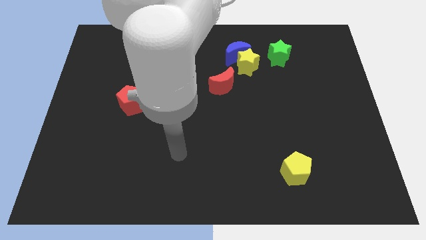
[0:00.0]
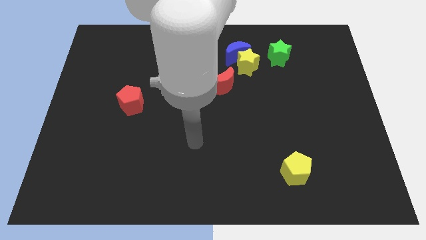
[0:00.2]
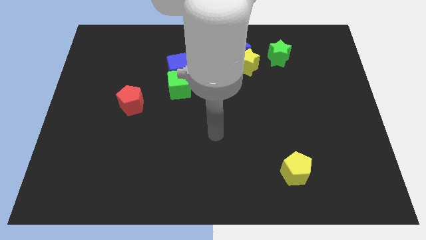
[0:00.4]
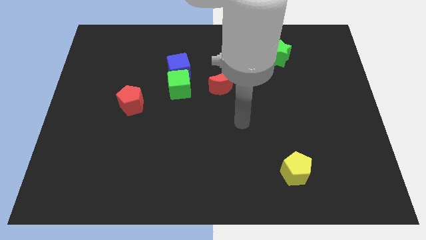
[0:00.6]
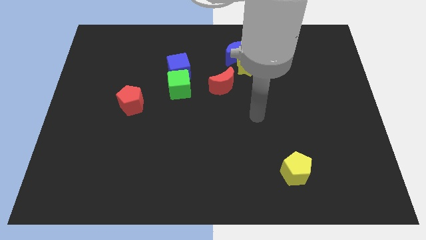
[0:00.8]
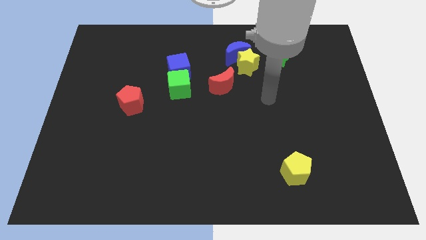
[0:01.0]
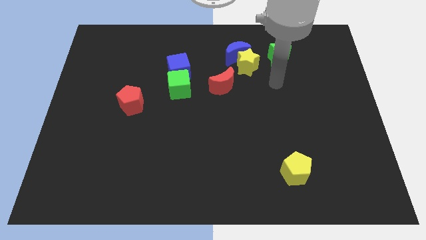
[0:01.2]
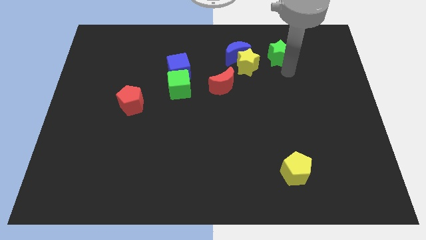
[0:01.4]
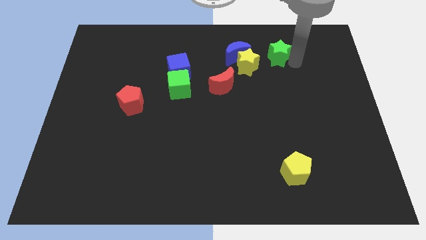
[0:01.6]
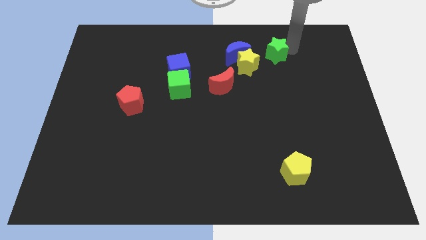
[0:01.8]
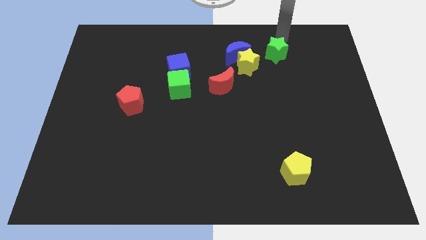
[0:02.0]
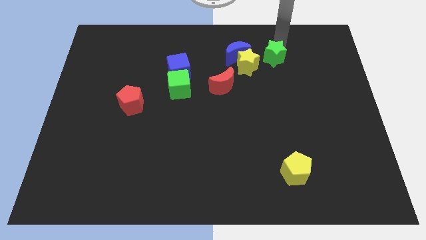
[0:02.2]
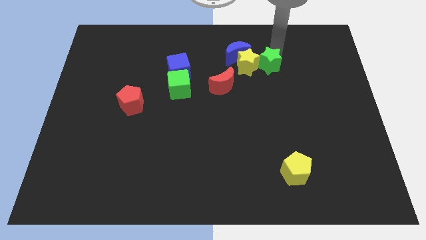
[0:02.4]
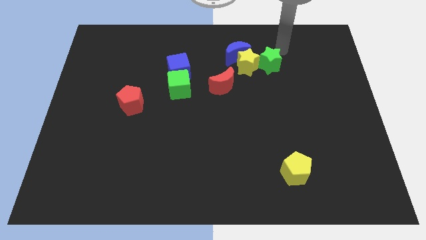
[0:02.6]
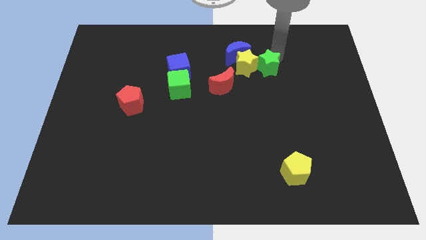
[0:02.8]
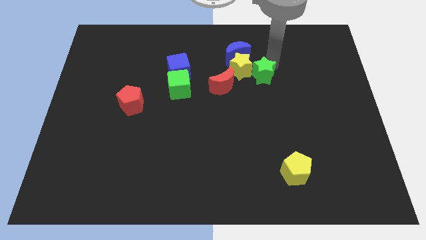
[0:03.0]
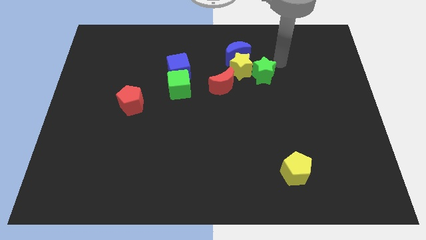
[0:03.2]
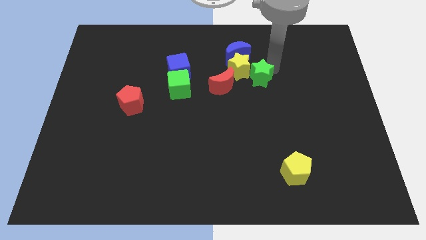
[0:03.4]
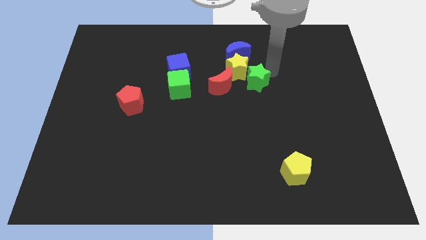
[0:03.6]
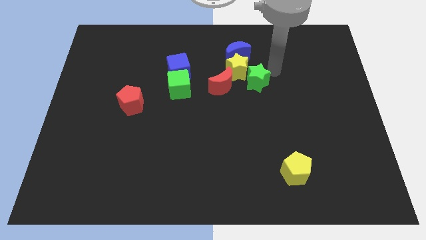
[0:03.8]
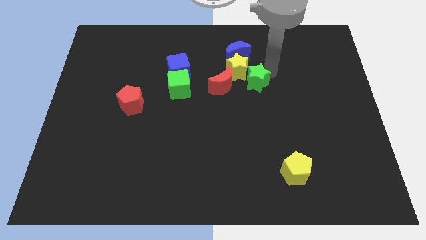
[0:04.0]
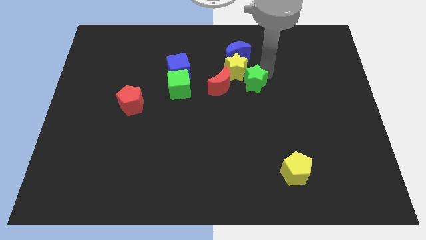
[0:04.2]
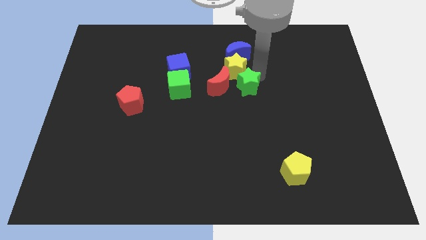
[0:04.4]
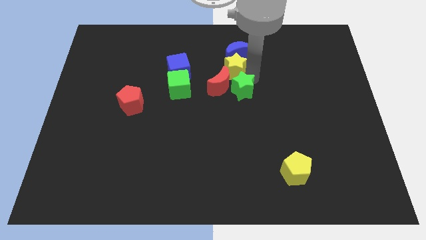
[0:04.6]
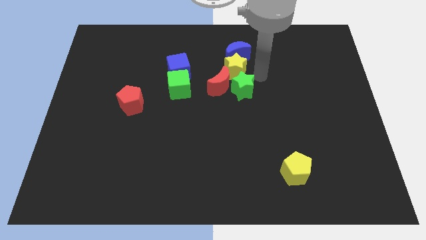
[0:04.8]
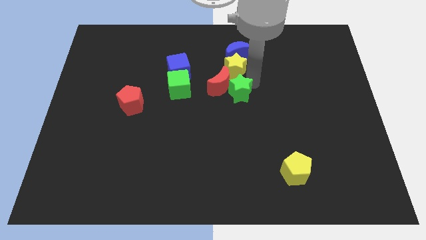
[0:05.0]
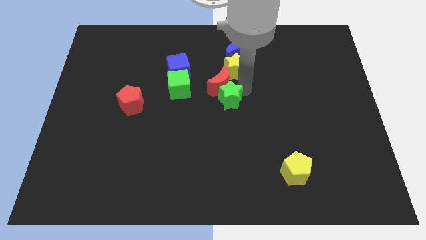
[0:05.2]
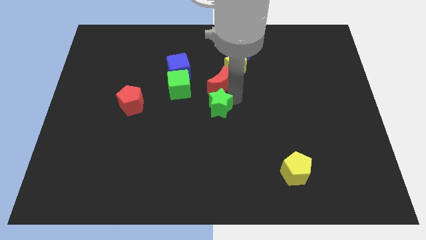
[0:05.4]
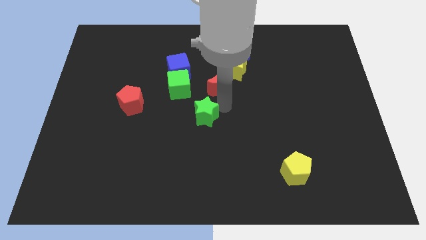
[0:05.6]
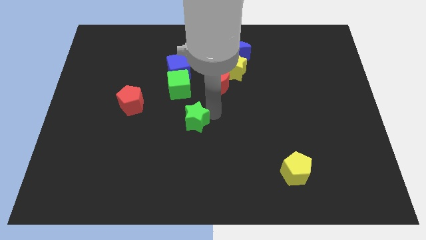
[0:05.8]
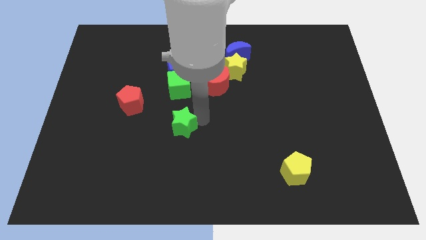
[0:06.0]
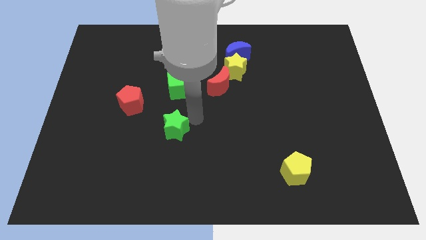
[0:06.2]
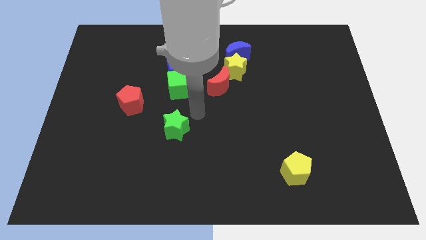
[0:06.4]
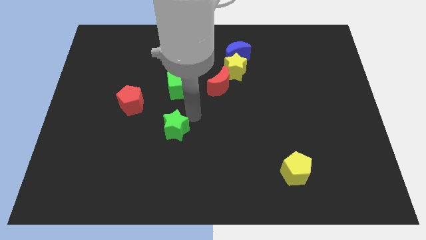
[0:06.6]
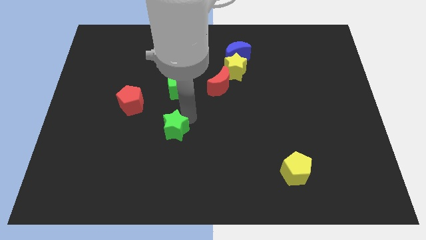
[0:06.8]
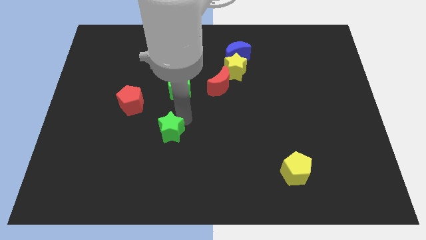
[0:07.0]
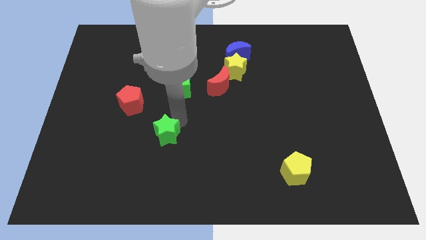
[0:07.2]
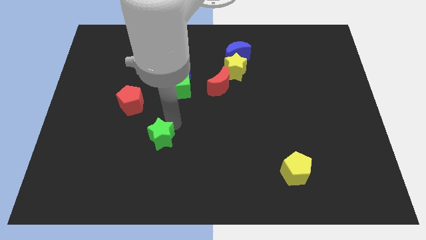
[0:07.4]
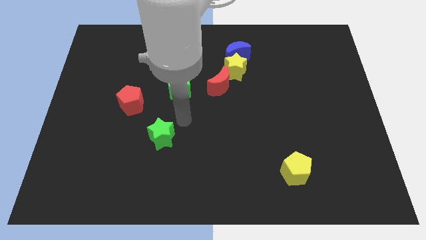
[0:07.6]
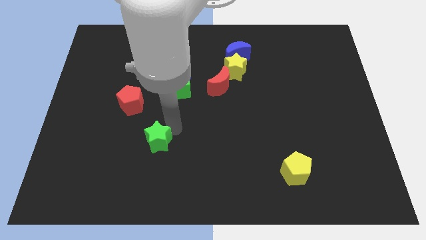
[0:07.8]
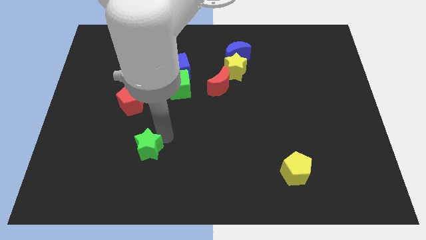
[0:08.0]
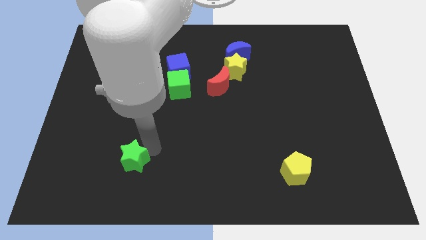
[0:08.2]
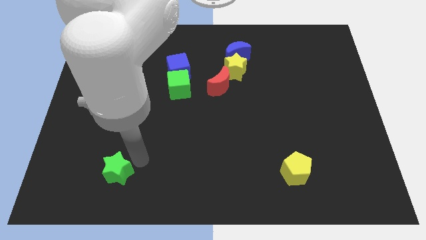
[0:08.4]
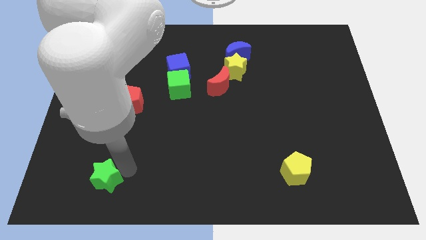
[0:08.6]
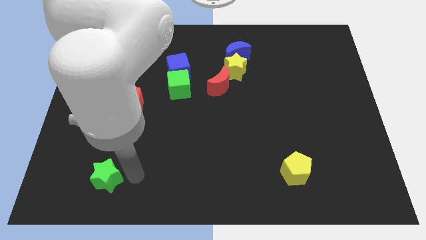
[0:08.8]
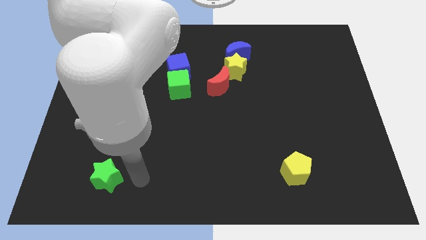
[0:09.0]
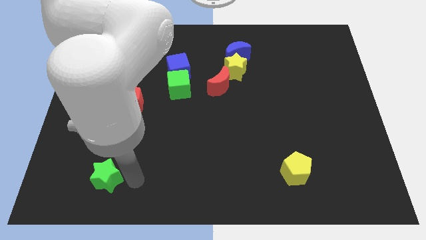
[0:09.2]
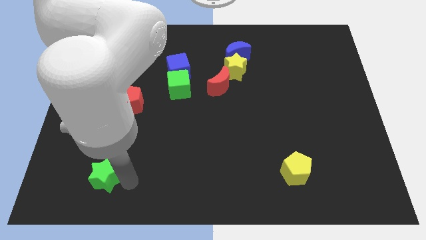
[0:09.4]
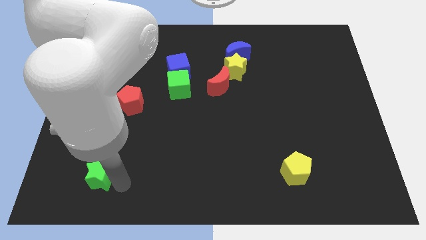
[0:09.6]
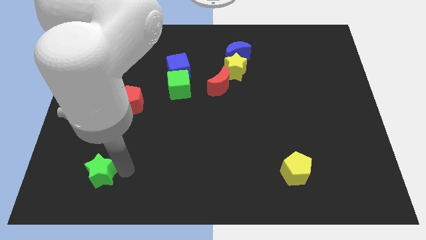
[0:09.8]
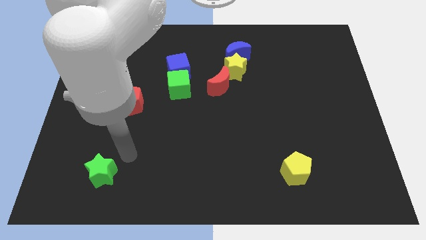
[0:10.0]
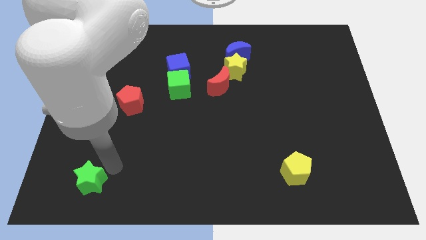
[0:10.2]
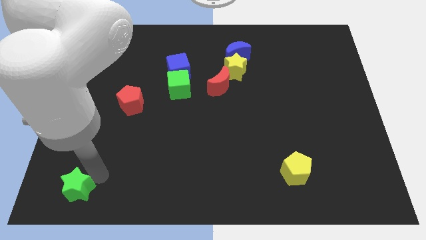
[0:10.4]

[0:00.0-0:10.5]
push the green star to the bottom left of the board

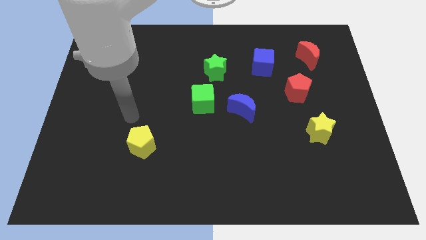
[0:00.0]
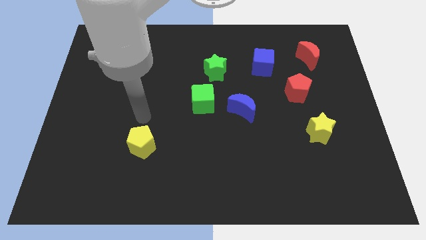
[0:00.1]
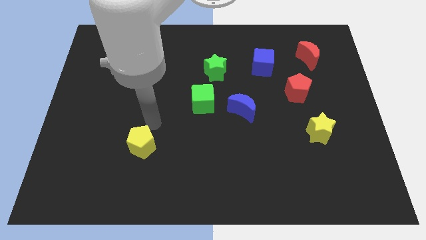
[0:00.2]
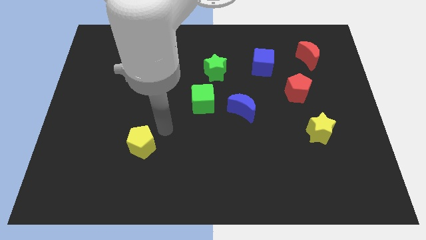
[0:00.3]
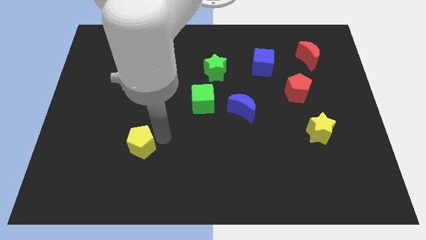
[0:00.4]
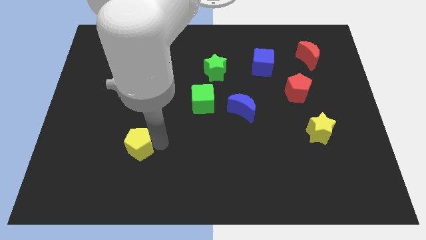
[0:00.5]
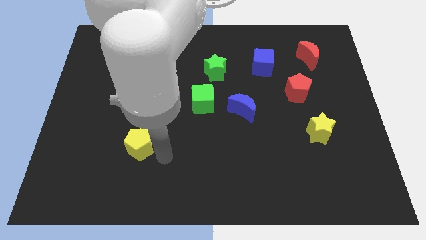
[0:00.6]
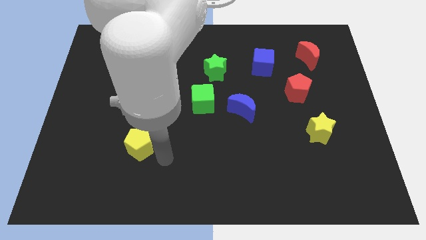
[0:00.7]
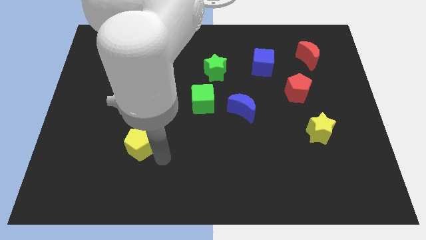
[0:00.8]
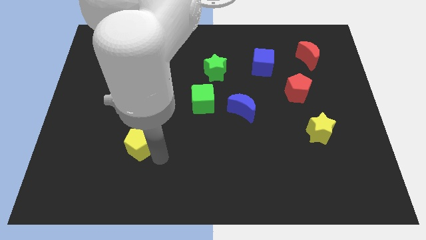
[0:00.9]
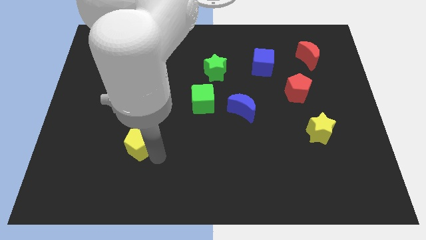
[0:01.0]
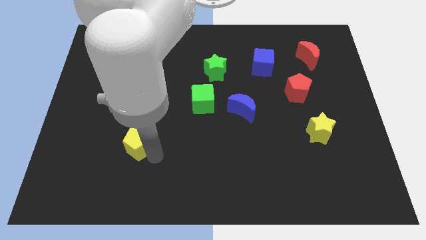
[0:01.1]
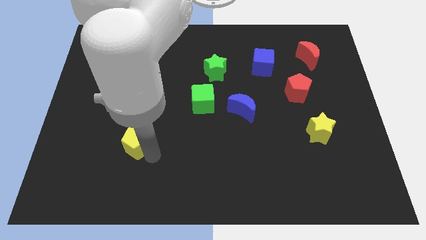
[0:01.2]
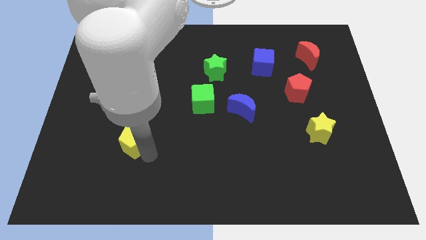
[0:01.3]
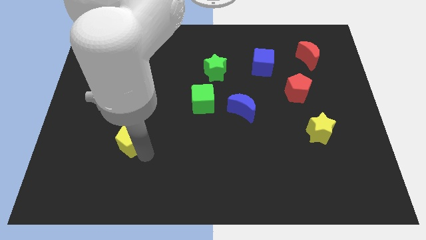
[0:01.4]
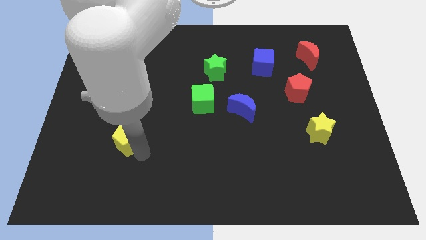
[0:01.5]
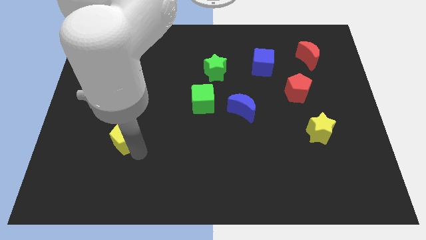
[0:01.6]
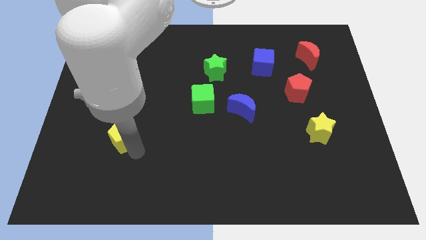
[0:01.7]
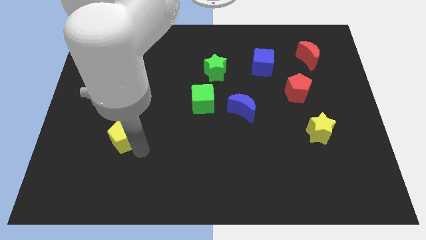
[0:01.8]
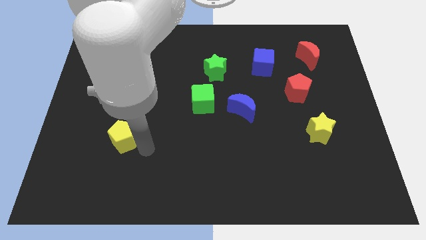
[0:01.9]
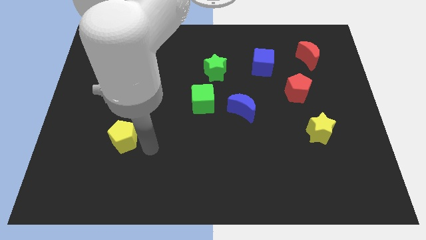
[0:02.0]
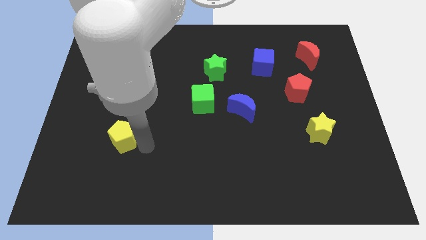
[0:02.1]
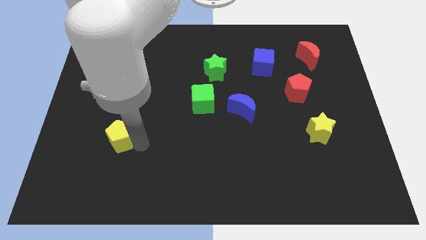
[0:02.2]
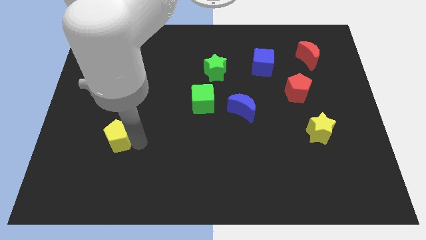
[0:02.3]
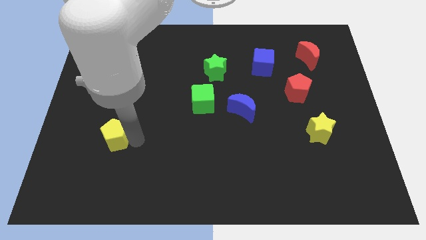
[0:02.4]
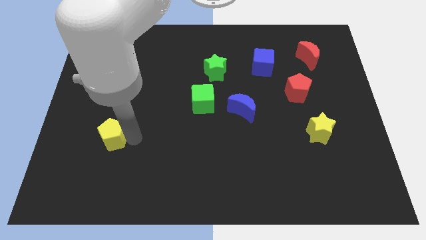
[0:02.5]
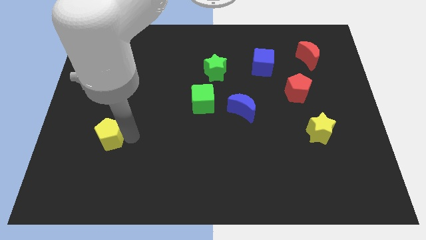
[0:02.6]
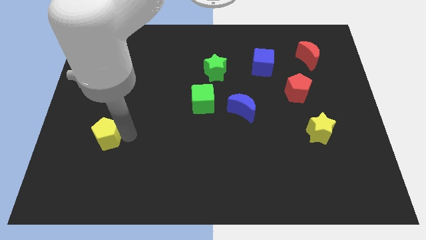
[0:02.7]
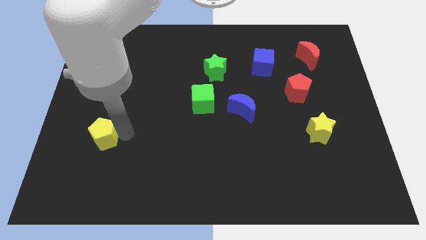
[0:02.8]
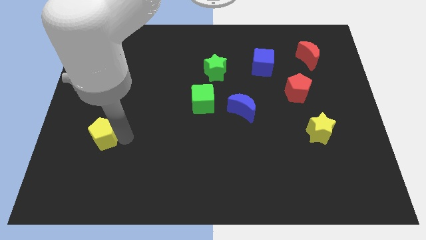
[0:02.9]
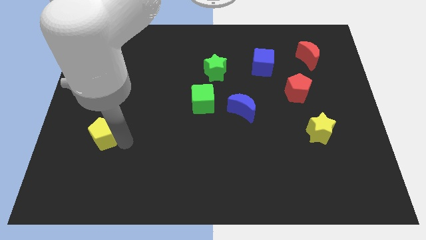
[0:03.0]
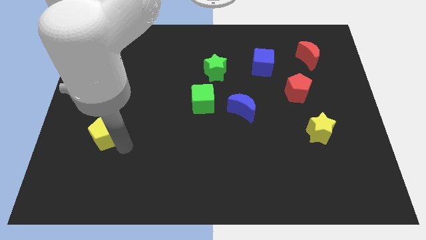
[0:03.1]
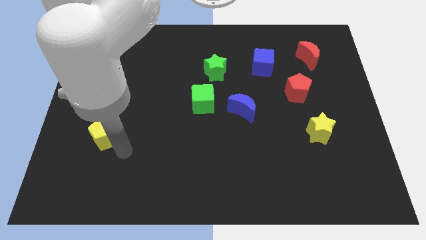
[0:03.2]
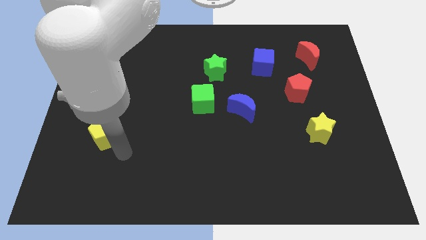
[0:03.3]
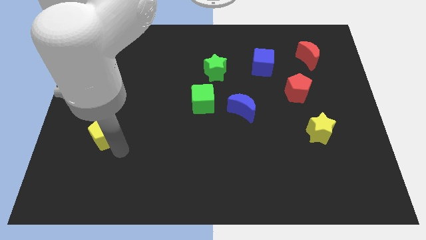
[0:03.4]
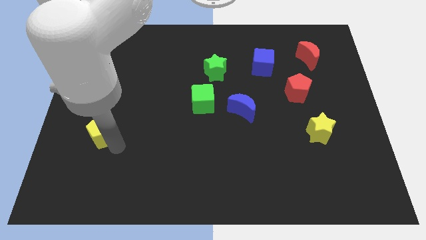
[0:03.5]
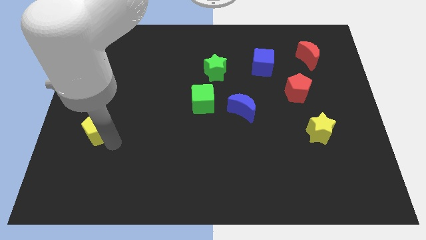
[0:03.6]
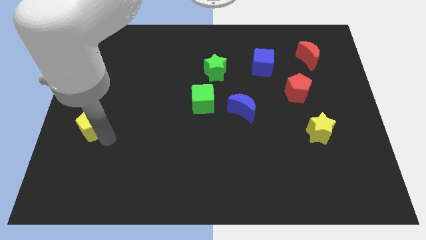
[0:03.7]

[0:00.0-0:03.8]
slide the yellow pentagon to the left side
